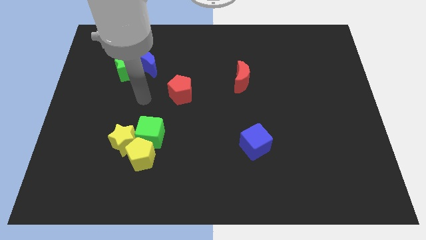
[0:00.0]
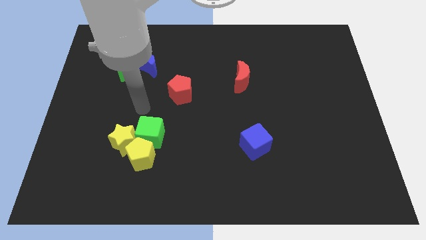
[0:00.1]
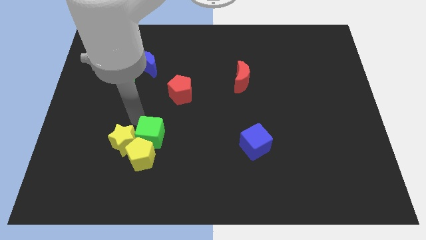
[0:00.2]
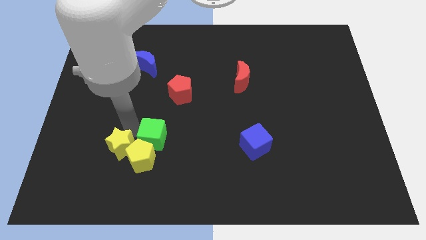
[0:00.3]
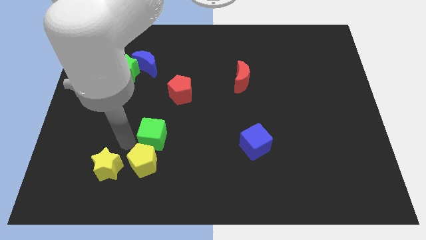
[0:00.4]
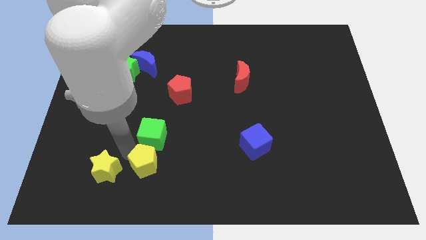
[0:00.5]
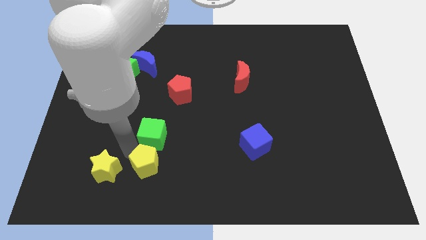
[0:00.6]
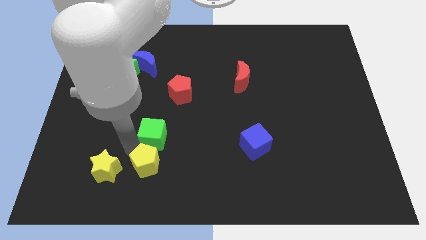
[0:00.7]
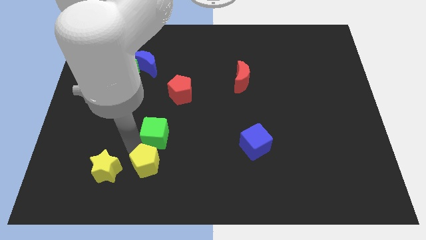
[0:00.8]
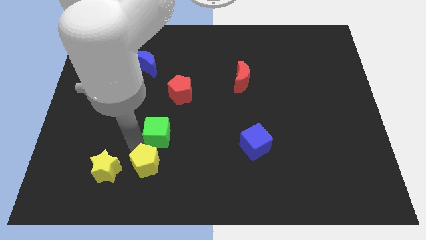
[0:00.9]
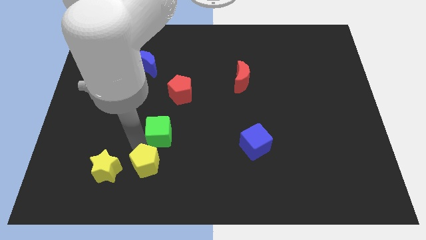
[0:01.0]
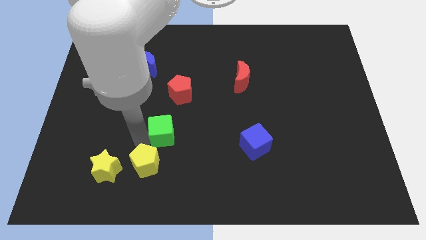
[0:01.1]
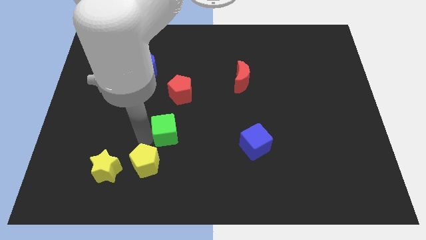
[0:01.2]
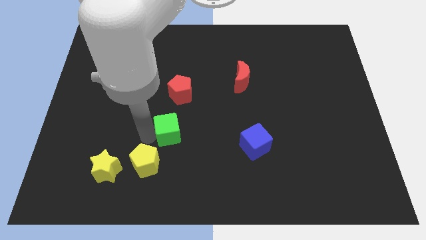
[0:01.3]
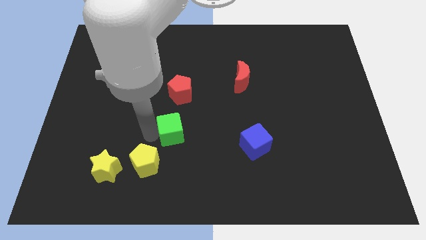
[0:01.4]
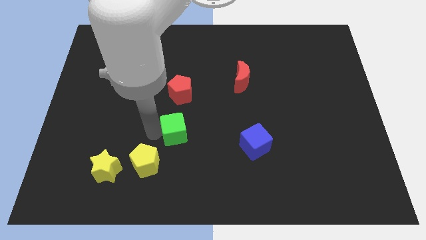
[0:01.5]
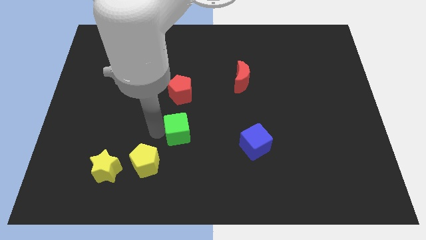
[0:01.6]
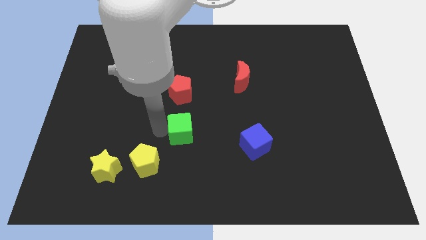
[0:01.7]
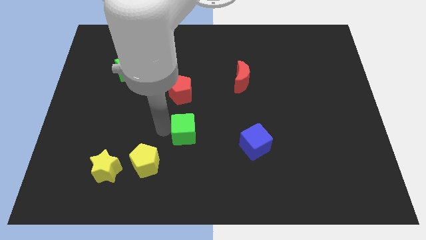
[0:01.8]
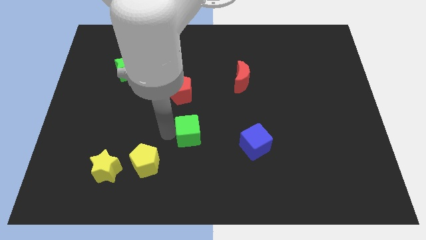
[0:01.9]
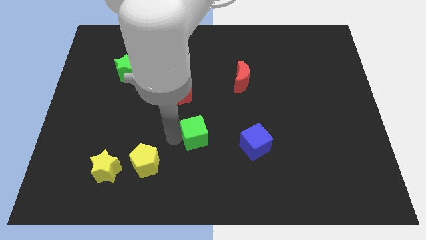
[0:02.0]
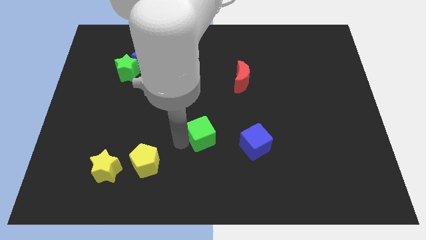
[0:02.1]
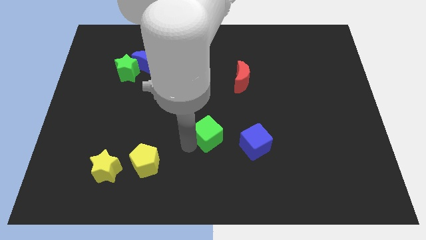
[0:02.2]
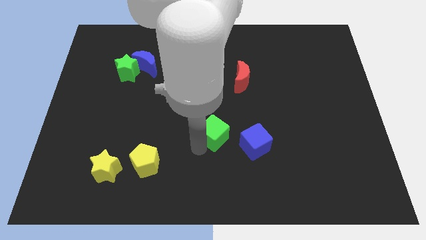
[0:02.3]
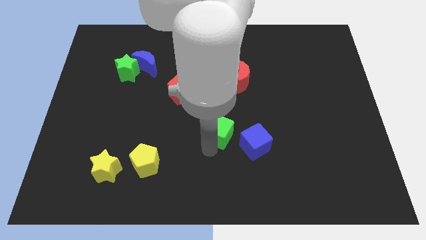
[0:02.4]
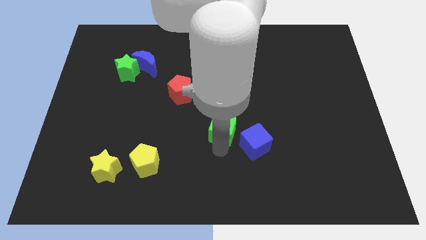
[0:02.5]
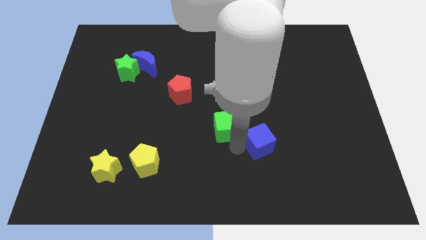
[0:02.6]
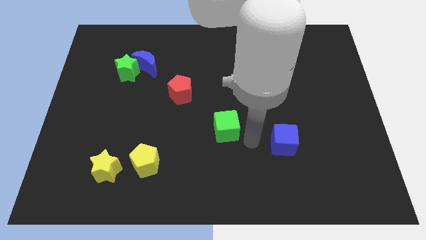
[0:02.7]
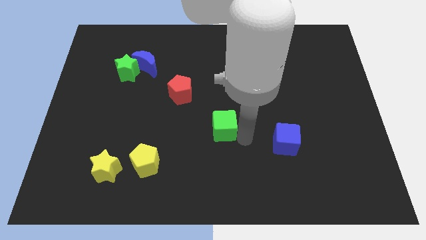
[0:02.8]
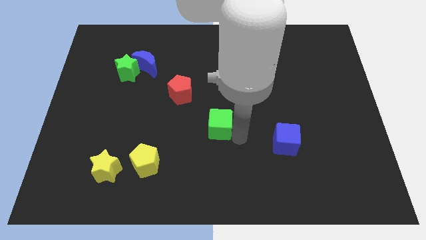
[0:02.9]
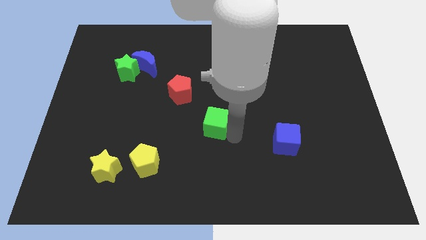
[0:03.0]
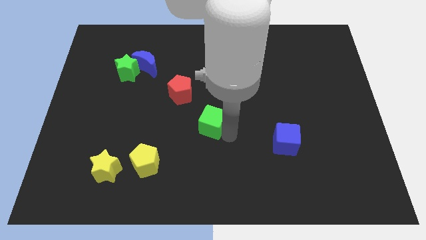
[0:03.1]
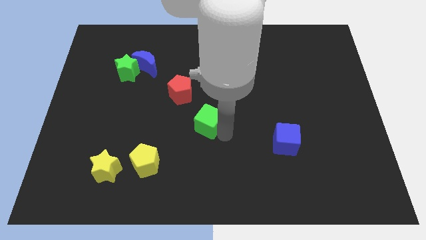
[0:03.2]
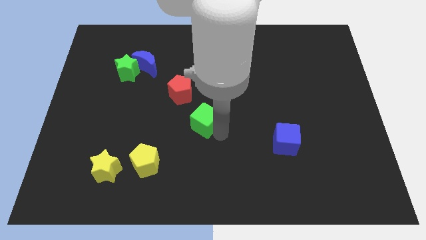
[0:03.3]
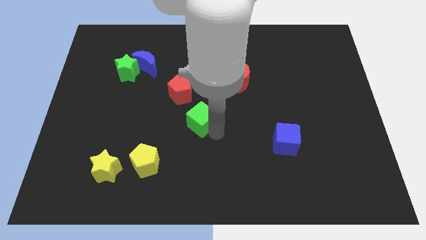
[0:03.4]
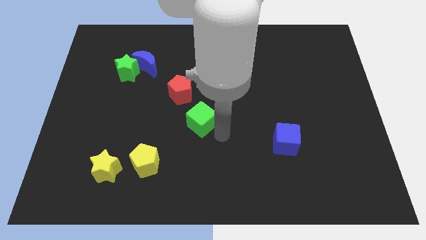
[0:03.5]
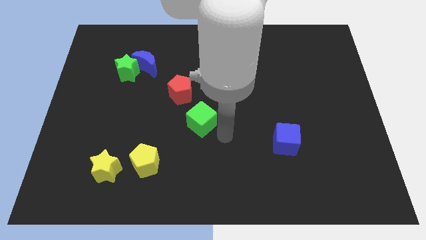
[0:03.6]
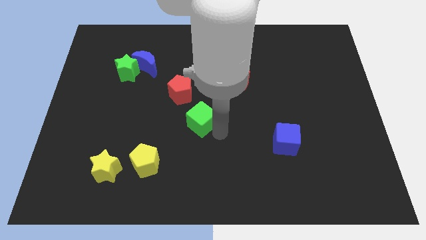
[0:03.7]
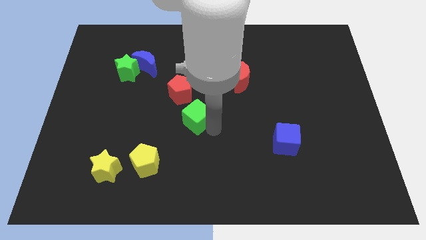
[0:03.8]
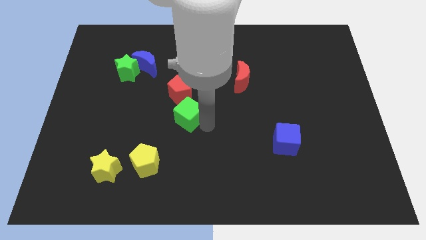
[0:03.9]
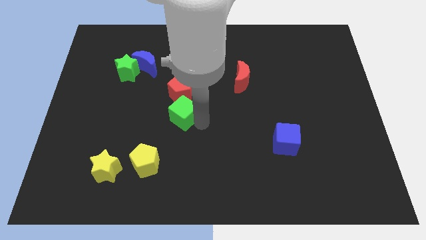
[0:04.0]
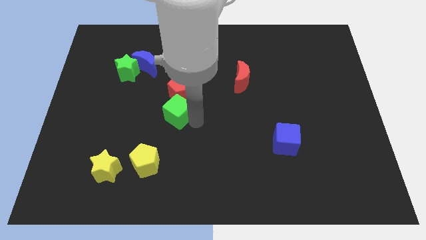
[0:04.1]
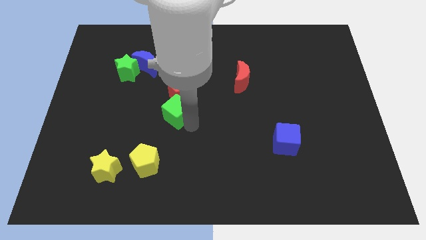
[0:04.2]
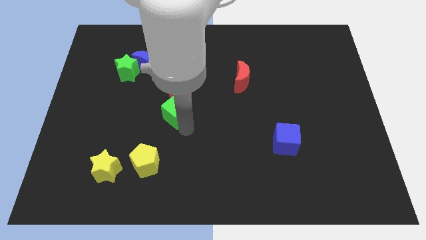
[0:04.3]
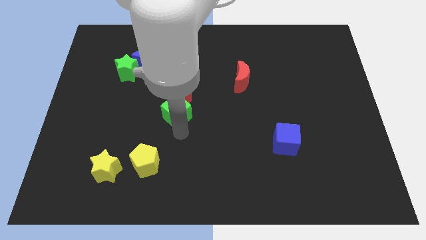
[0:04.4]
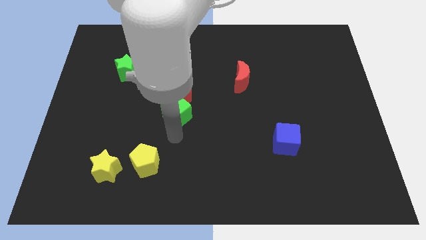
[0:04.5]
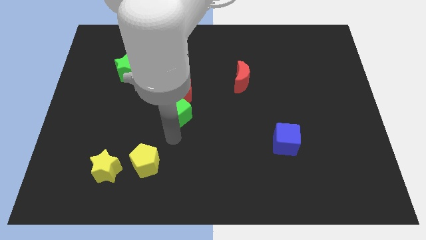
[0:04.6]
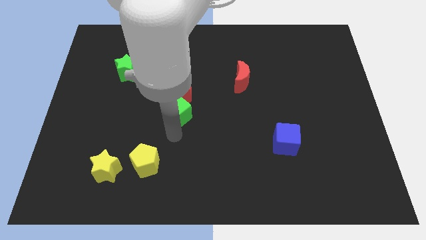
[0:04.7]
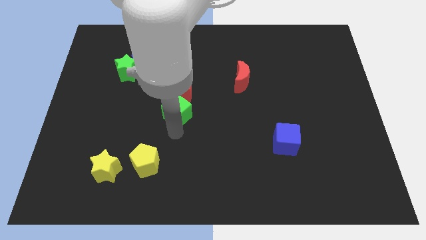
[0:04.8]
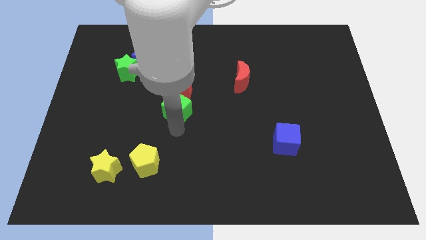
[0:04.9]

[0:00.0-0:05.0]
move the green cube towards the red pentagon

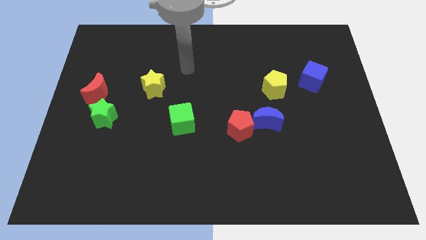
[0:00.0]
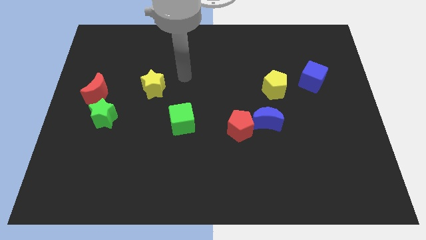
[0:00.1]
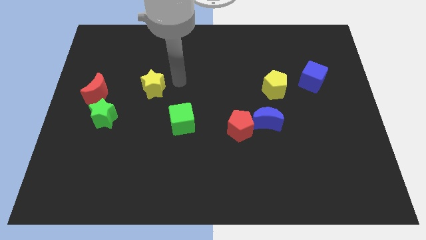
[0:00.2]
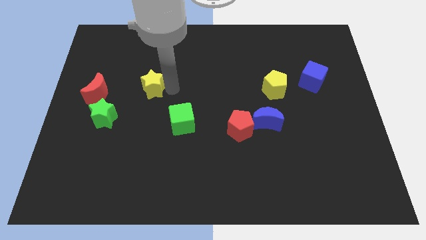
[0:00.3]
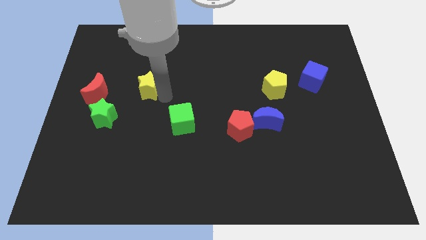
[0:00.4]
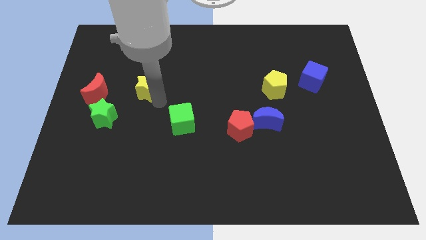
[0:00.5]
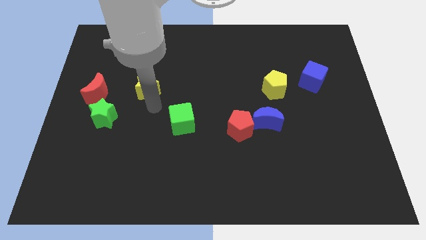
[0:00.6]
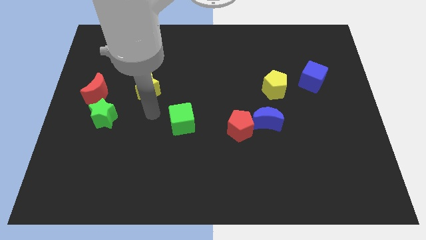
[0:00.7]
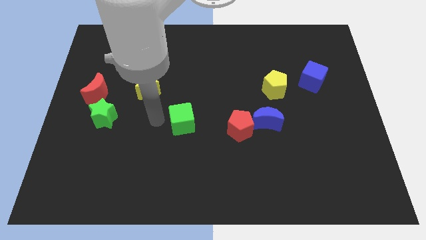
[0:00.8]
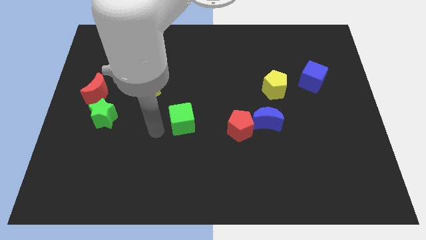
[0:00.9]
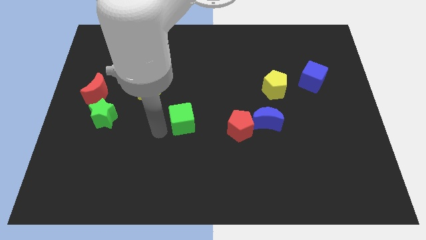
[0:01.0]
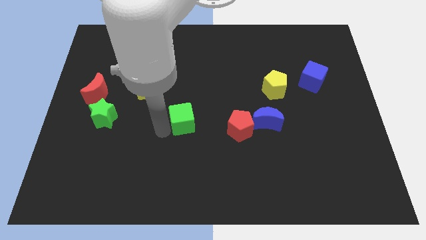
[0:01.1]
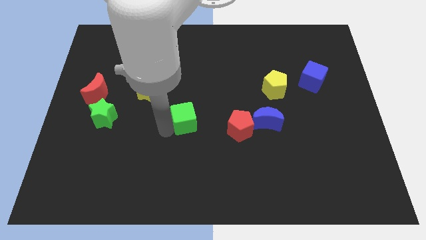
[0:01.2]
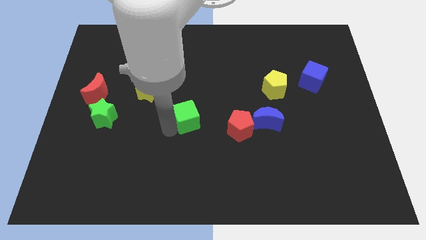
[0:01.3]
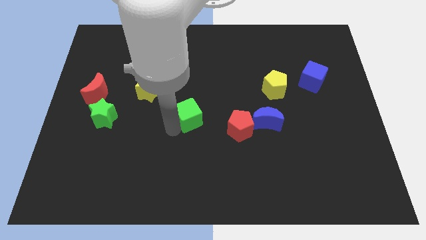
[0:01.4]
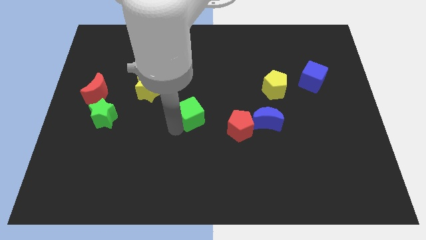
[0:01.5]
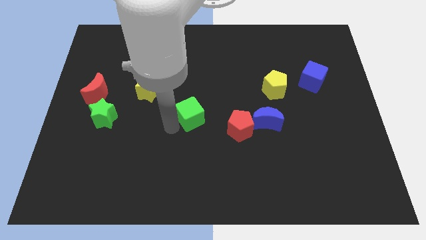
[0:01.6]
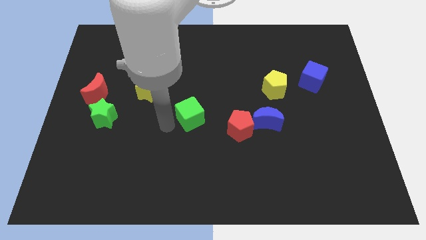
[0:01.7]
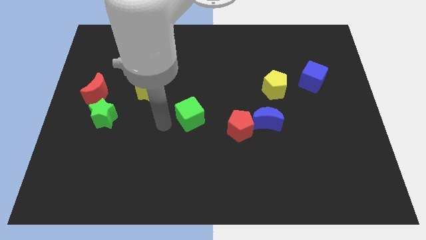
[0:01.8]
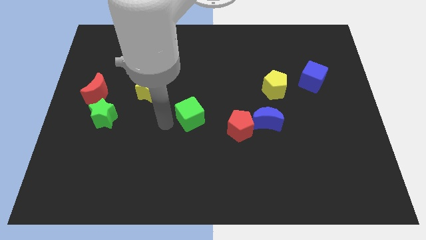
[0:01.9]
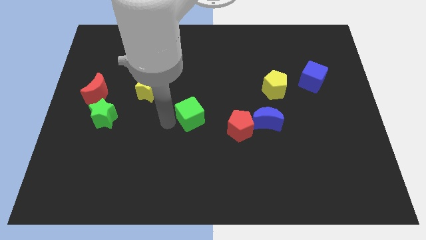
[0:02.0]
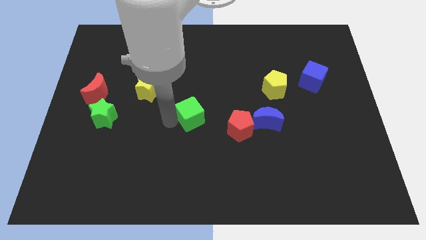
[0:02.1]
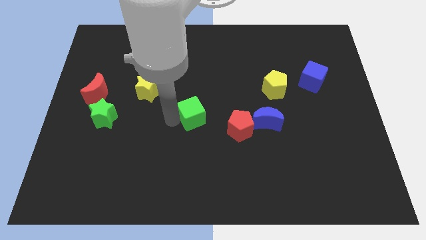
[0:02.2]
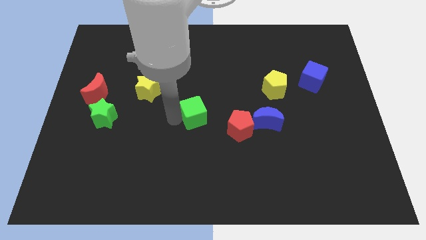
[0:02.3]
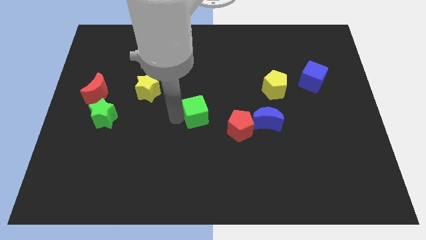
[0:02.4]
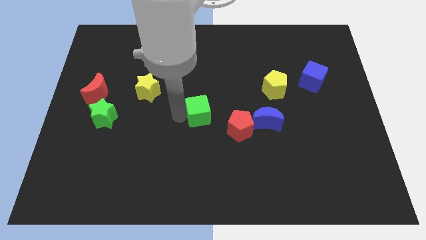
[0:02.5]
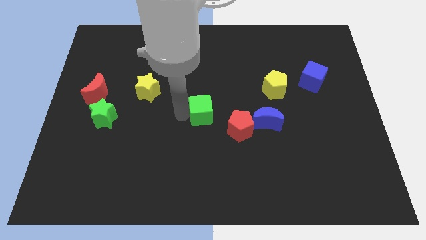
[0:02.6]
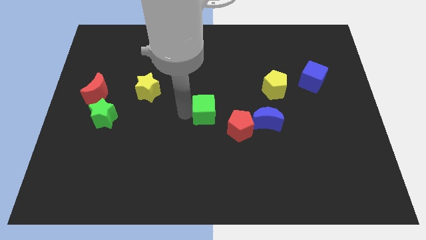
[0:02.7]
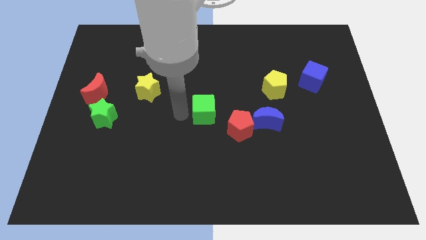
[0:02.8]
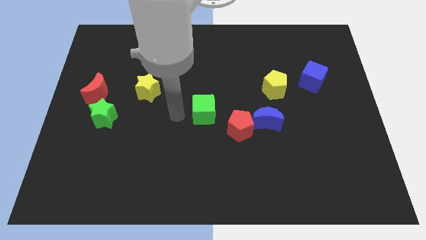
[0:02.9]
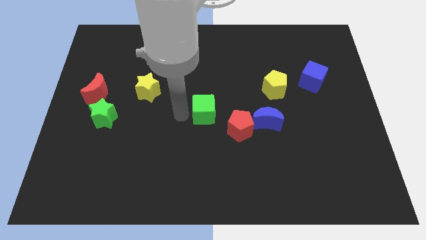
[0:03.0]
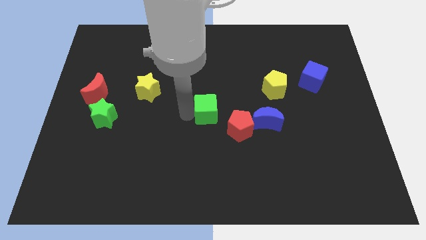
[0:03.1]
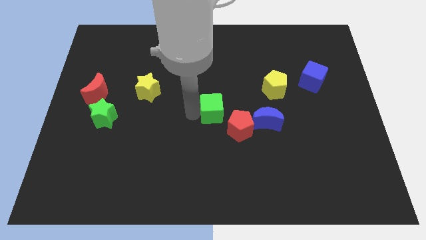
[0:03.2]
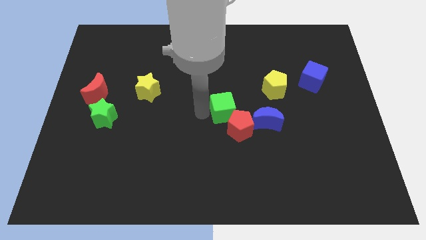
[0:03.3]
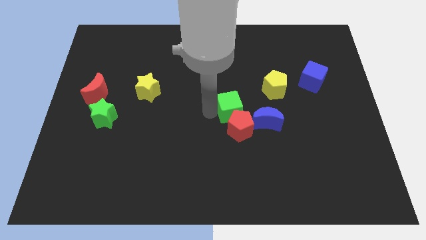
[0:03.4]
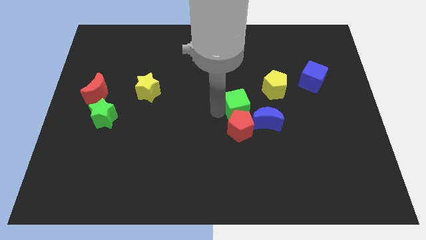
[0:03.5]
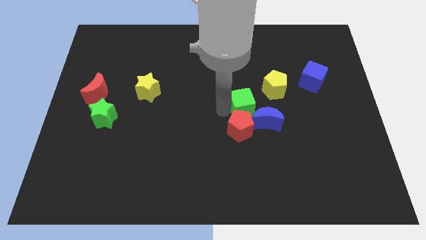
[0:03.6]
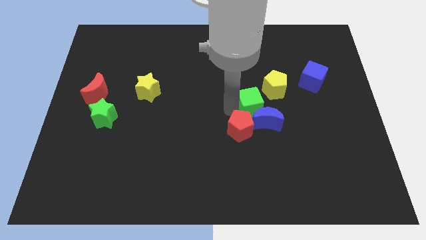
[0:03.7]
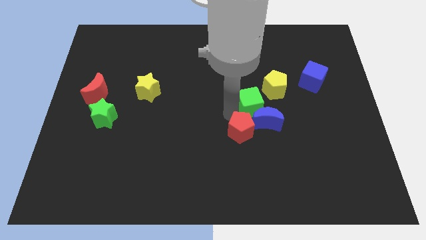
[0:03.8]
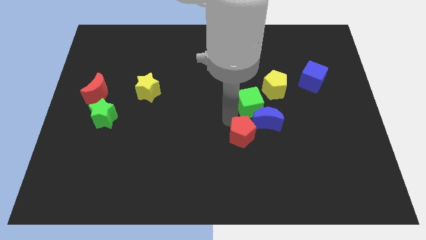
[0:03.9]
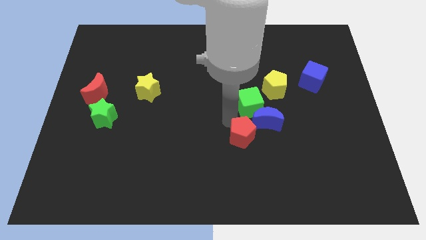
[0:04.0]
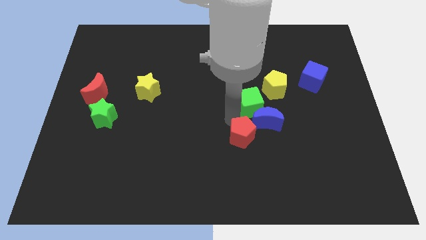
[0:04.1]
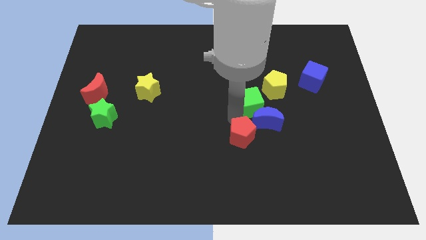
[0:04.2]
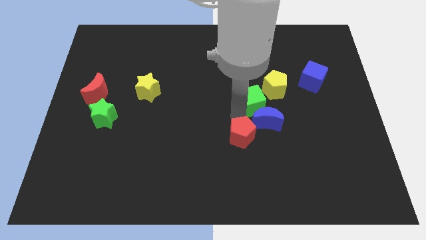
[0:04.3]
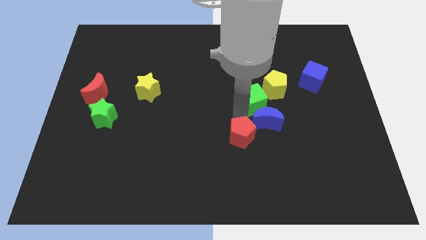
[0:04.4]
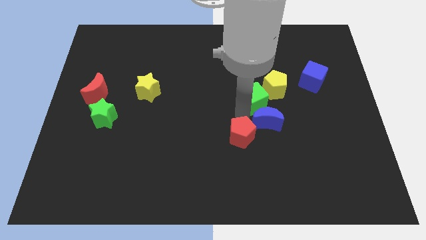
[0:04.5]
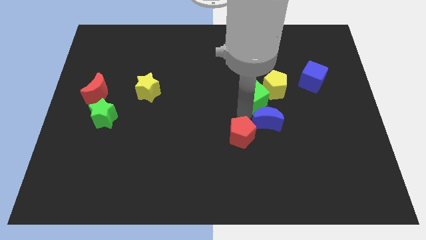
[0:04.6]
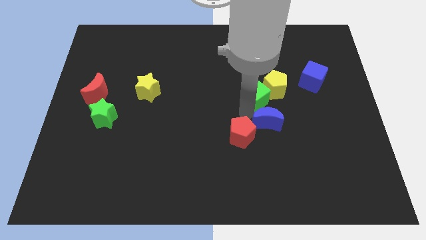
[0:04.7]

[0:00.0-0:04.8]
slide the green cube to the yellow pentagon
